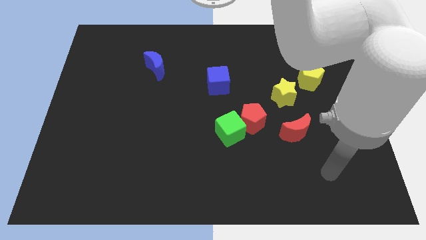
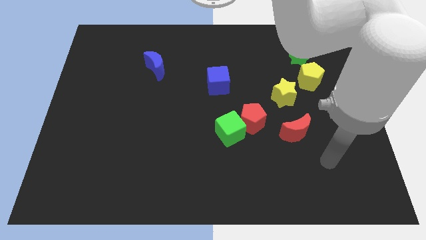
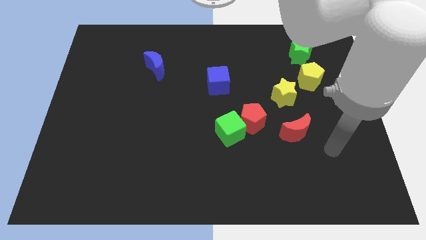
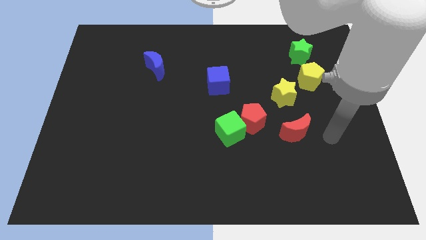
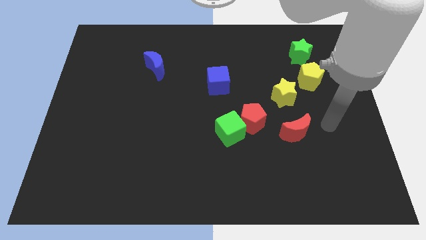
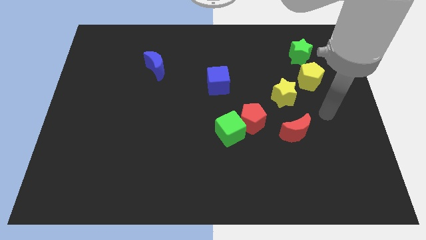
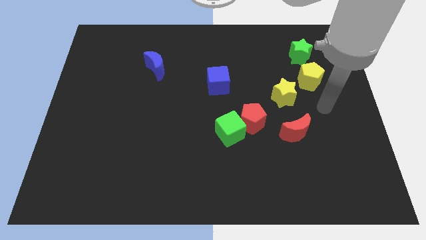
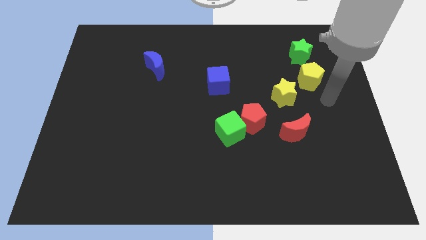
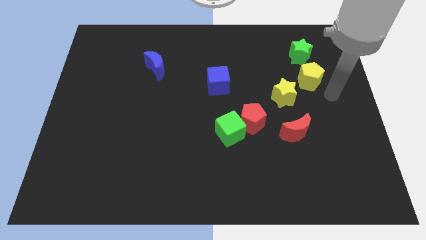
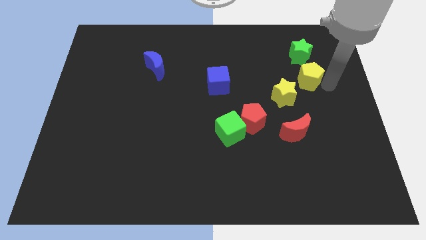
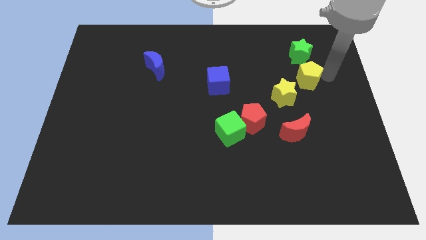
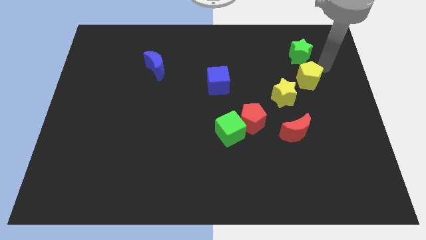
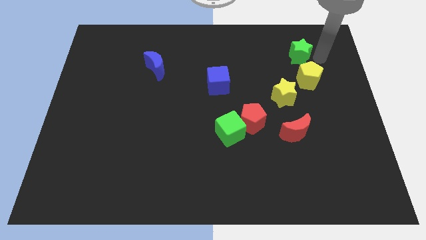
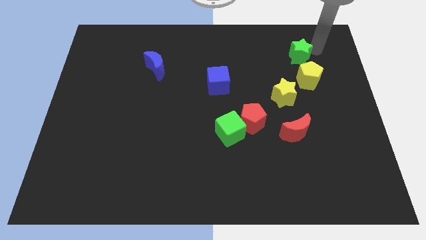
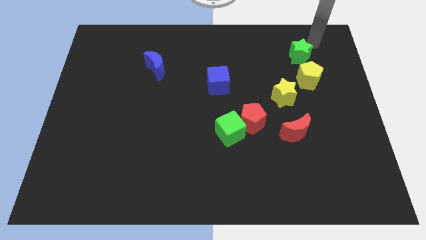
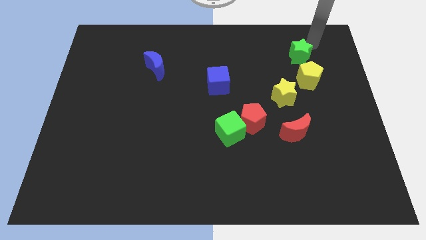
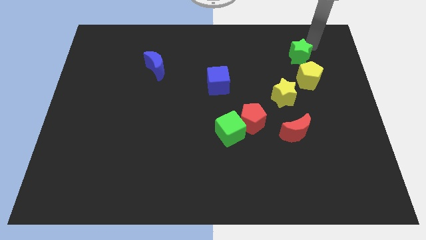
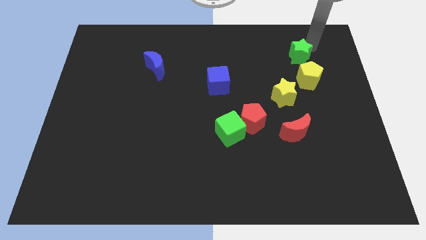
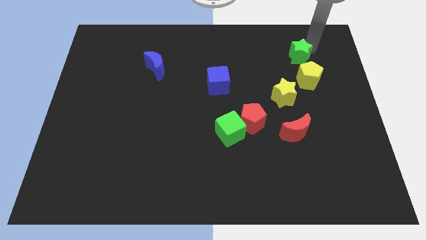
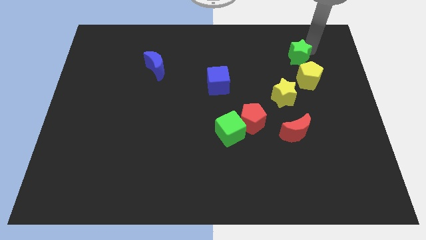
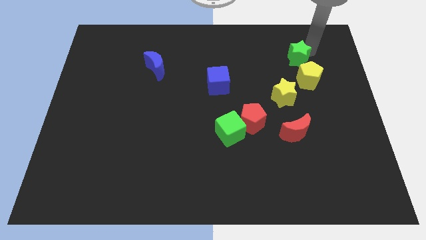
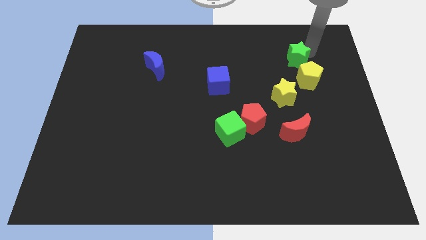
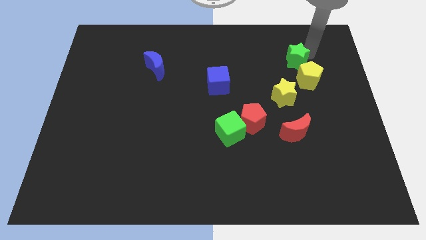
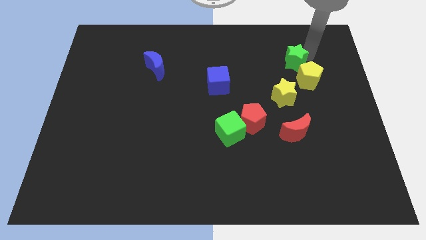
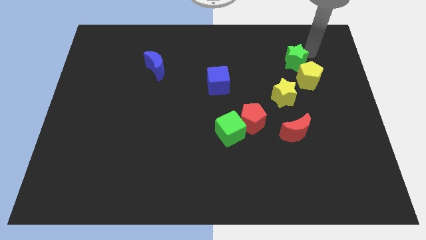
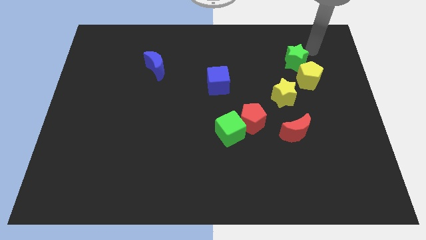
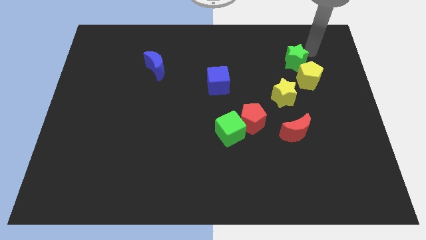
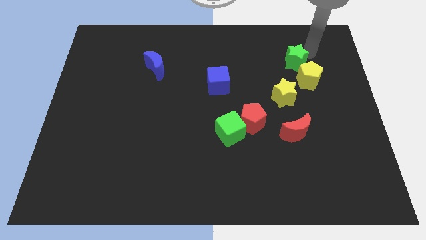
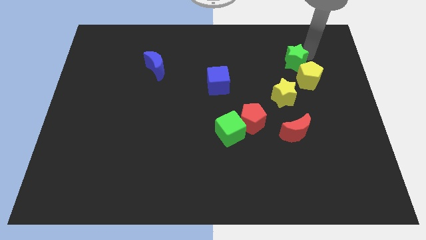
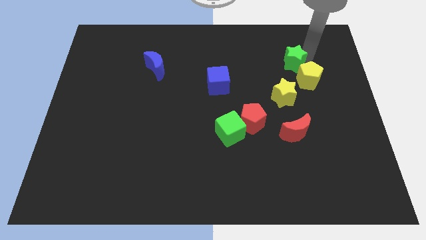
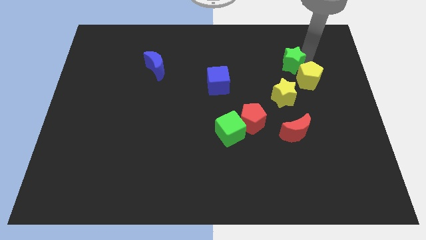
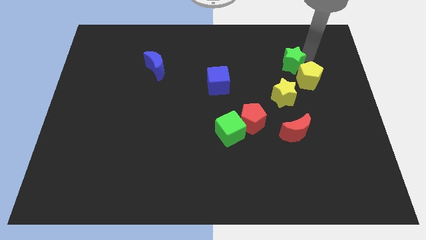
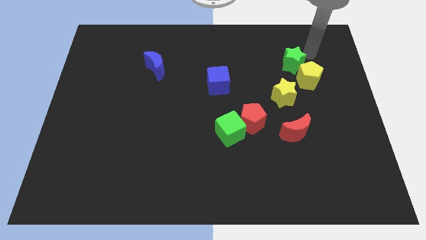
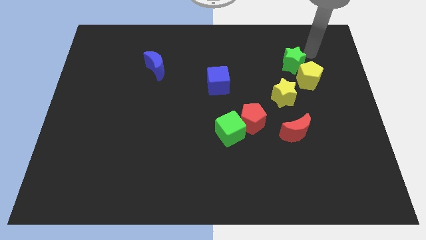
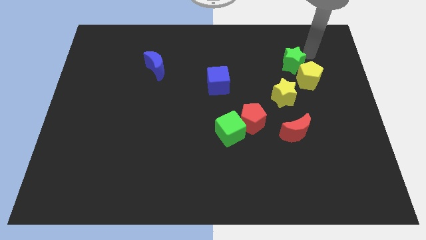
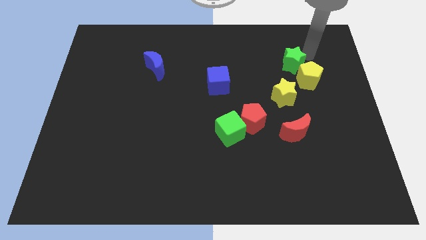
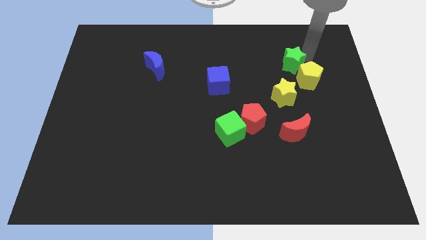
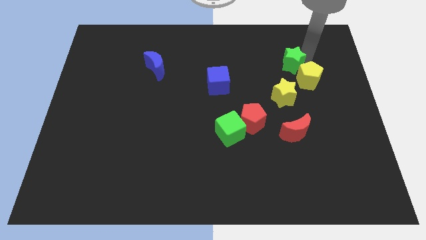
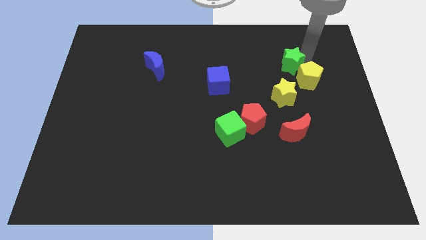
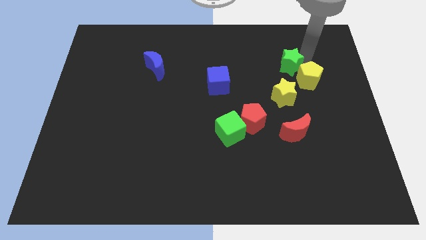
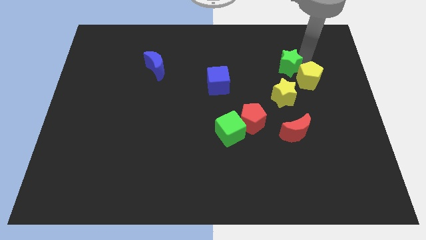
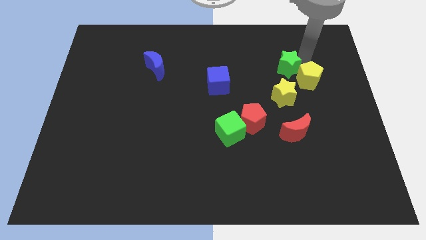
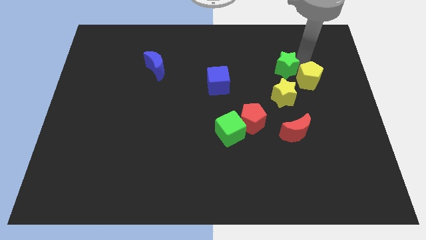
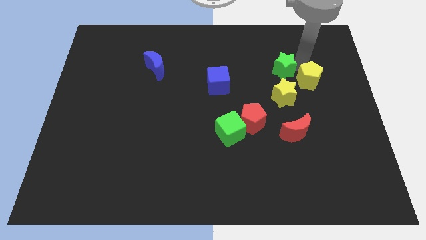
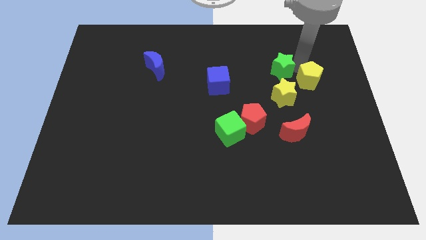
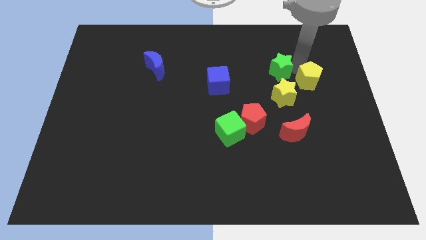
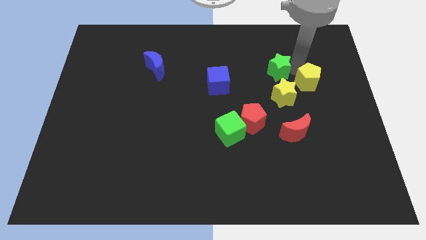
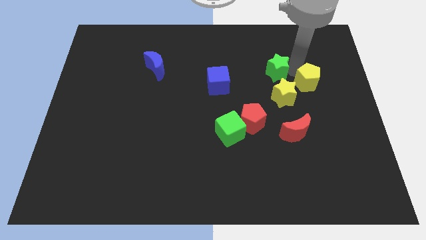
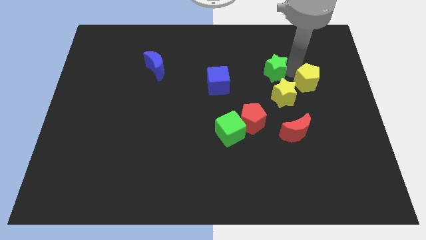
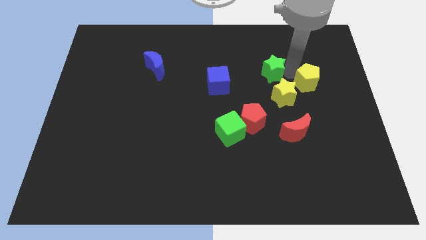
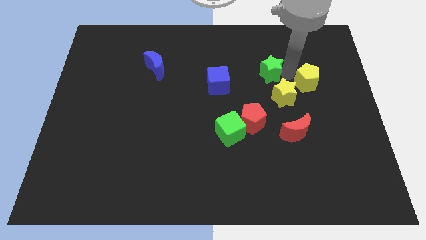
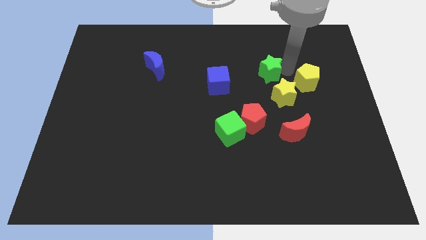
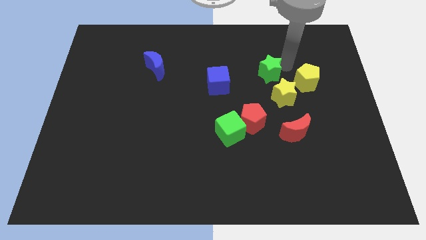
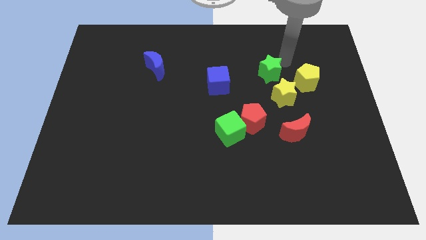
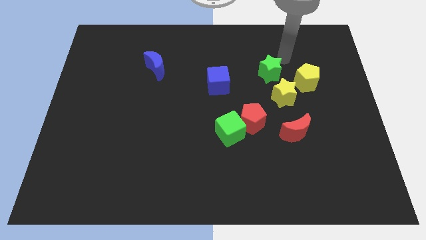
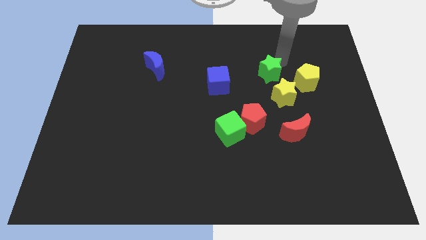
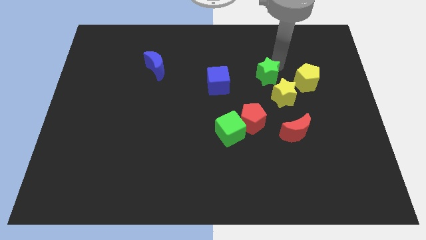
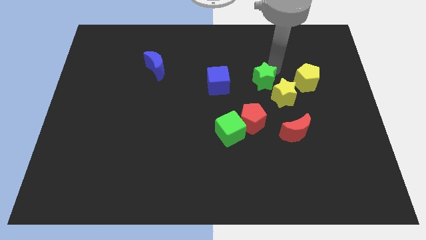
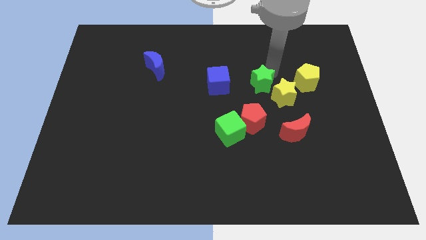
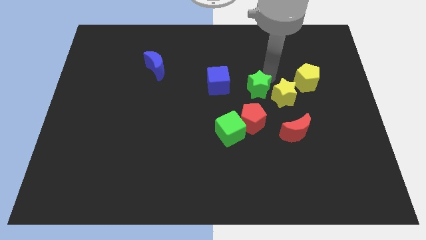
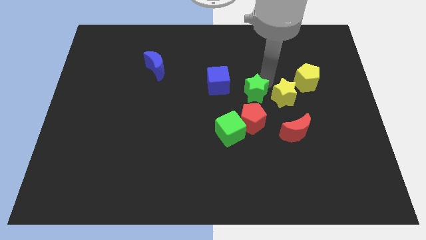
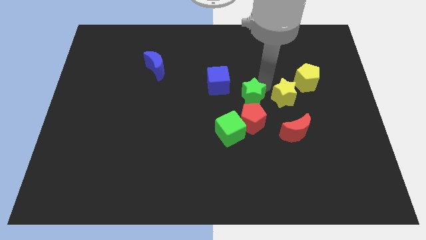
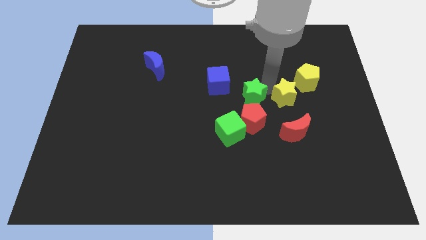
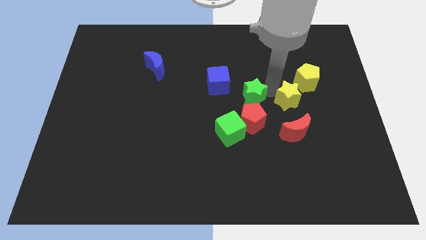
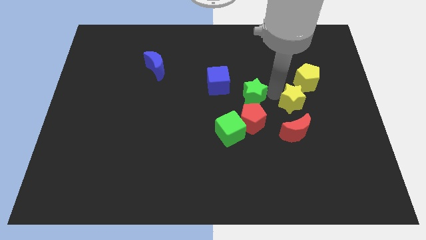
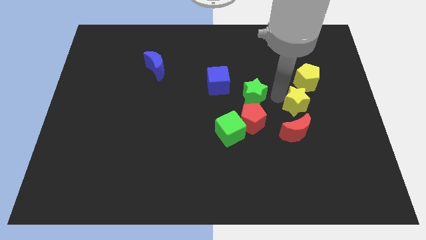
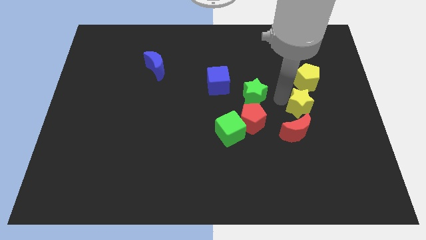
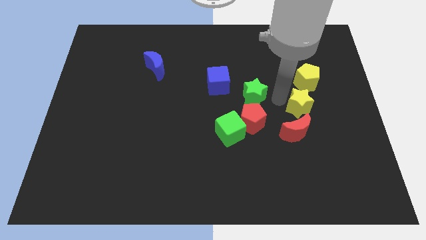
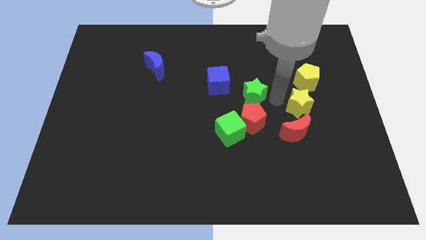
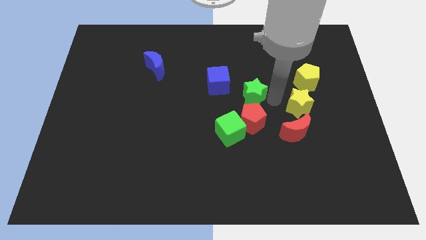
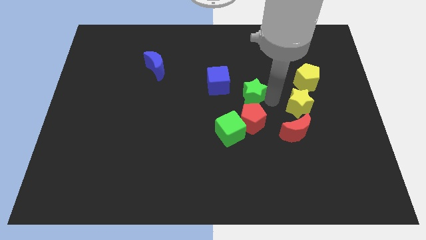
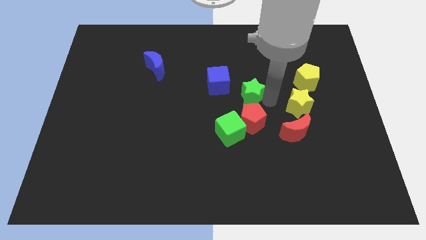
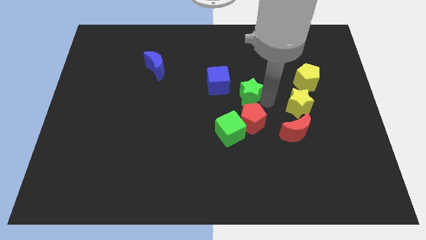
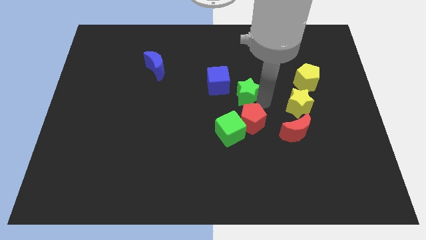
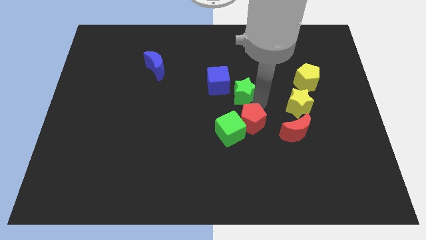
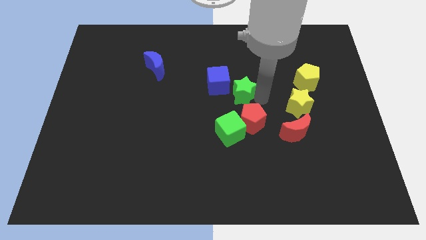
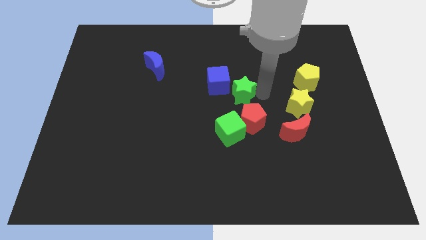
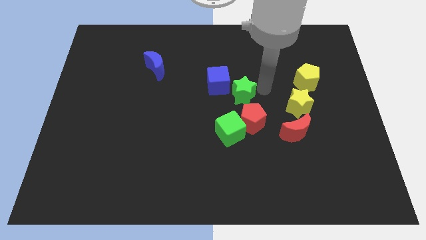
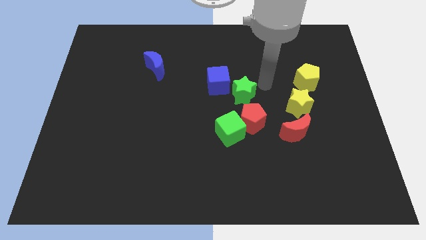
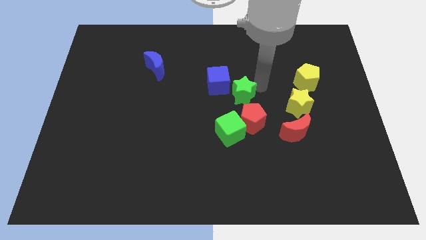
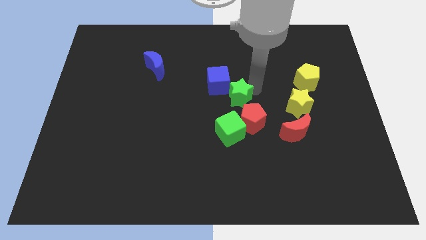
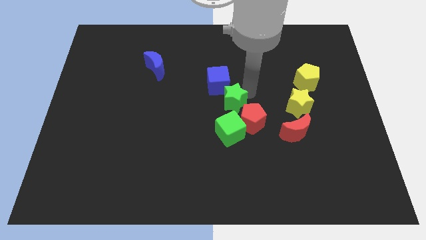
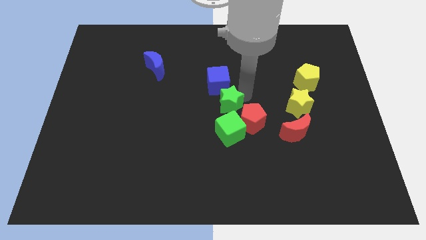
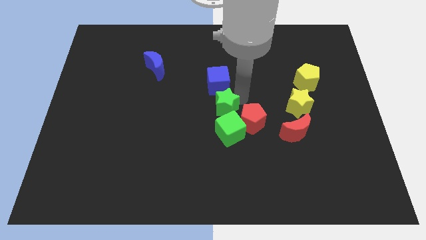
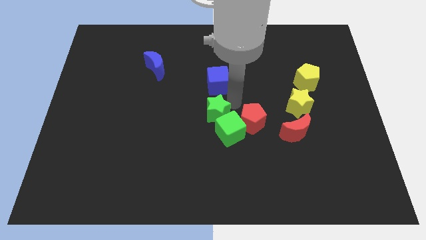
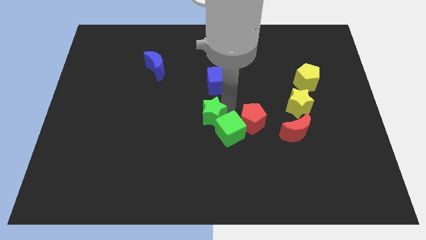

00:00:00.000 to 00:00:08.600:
push the green star to the left of the green cube
